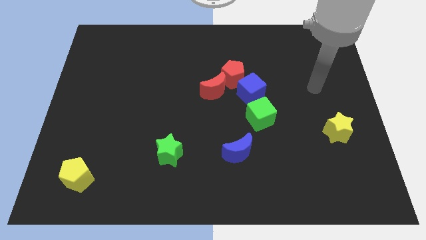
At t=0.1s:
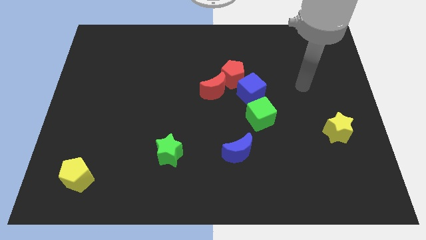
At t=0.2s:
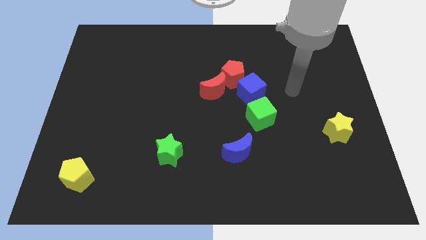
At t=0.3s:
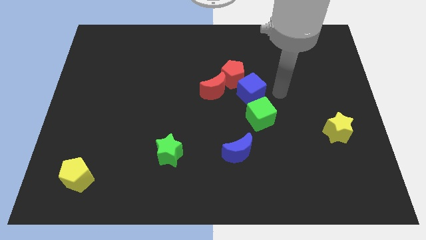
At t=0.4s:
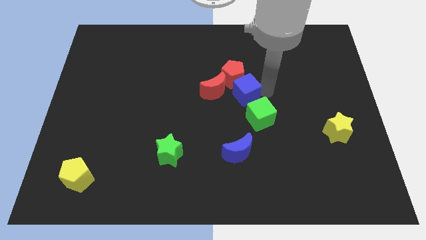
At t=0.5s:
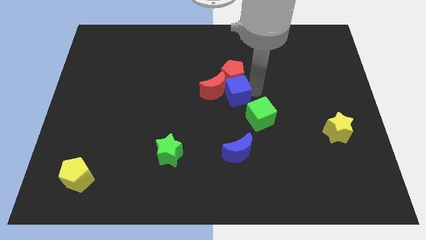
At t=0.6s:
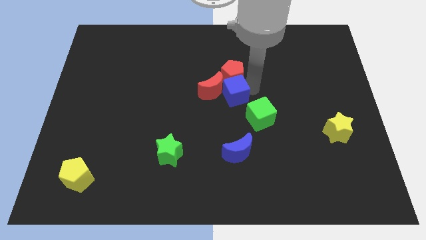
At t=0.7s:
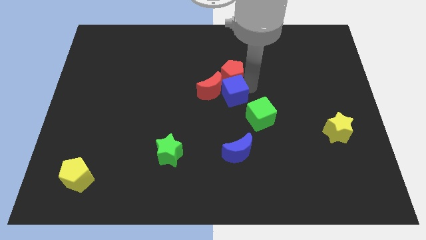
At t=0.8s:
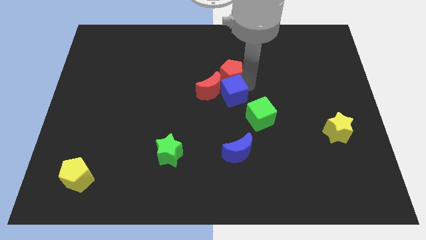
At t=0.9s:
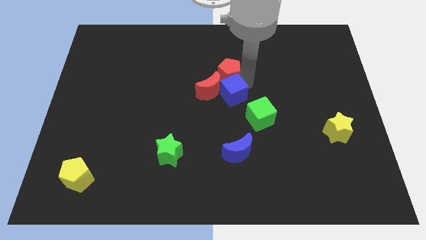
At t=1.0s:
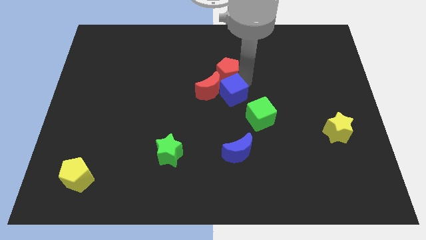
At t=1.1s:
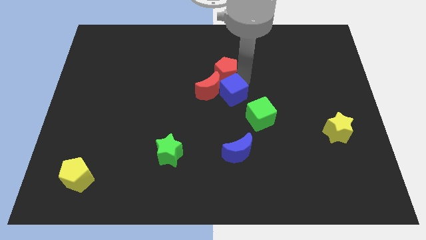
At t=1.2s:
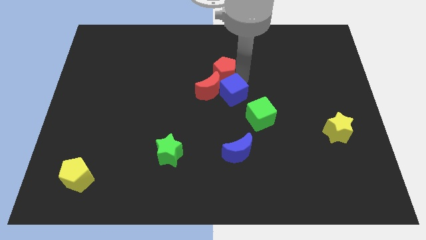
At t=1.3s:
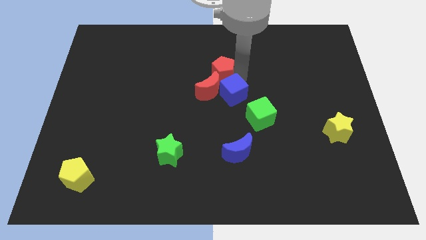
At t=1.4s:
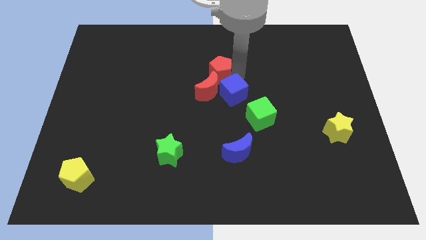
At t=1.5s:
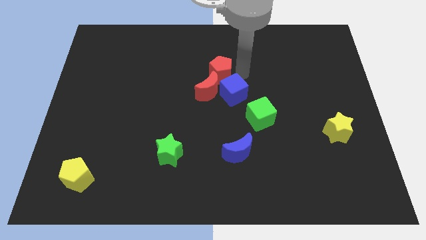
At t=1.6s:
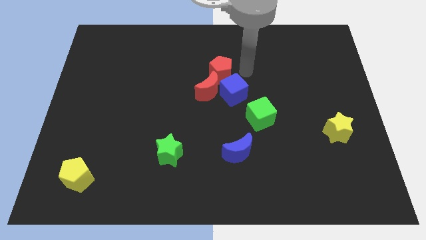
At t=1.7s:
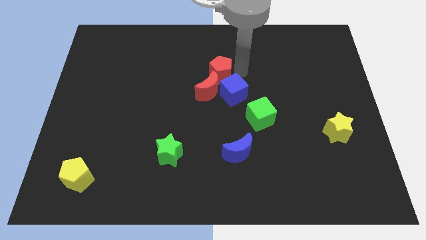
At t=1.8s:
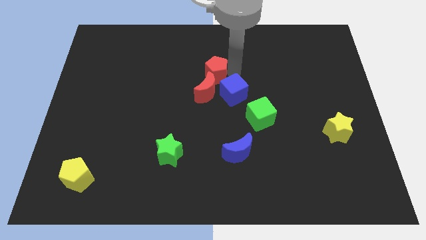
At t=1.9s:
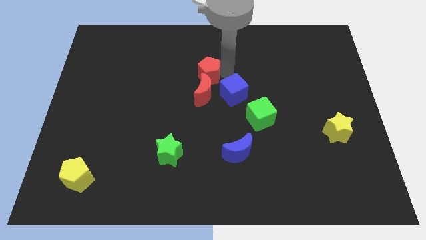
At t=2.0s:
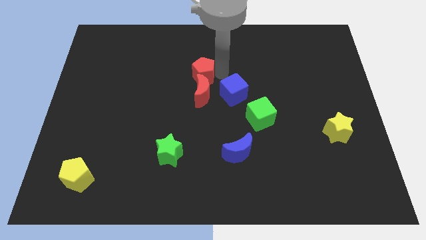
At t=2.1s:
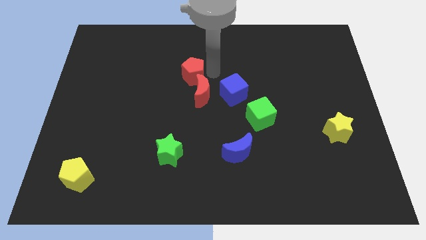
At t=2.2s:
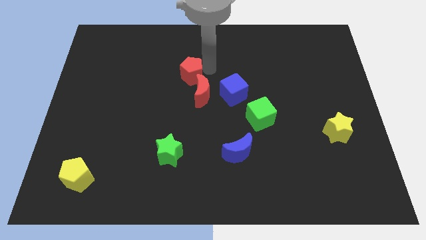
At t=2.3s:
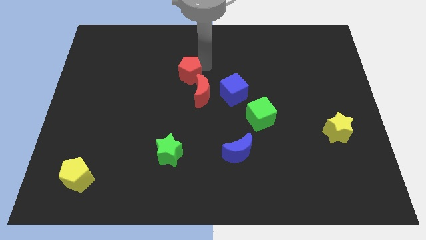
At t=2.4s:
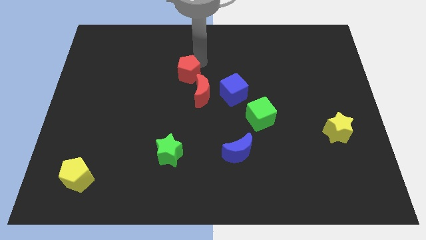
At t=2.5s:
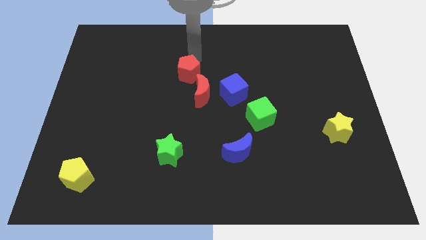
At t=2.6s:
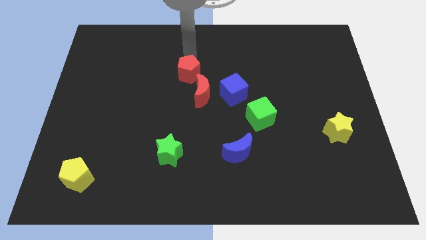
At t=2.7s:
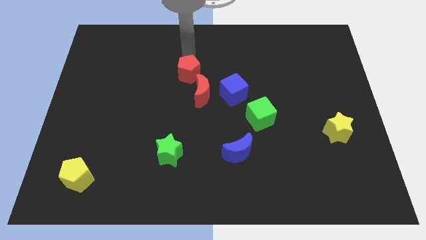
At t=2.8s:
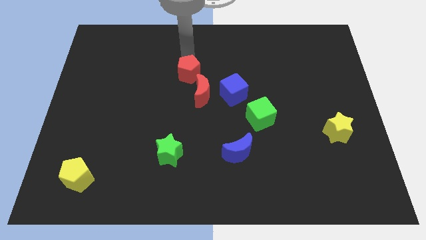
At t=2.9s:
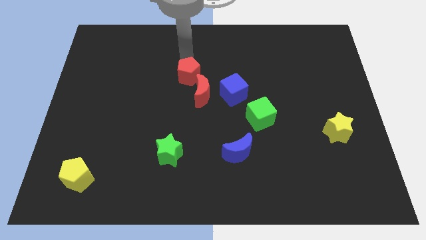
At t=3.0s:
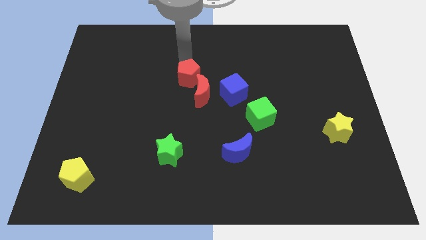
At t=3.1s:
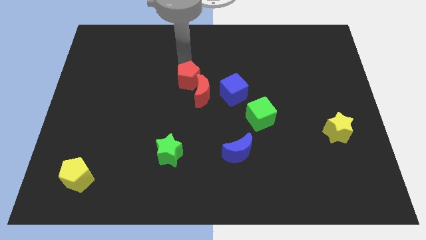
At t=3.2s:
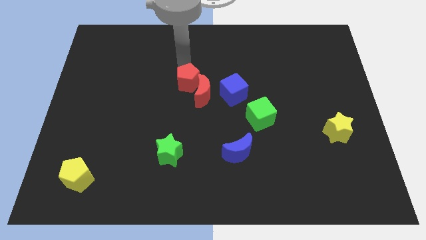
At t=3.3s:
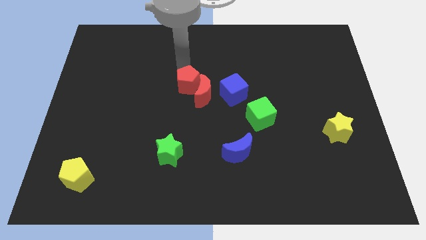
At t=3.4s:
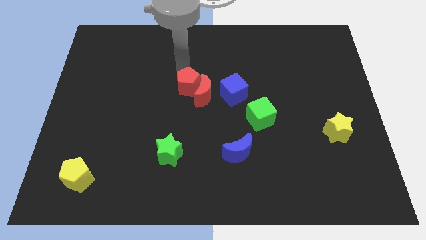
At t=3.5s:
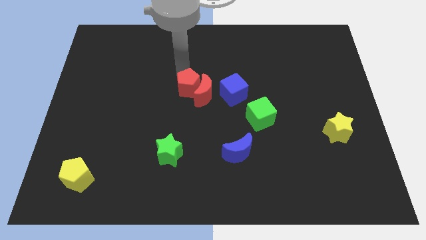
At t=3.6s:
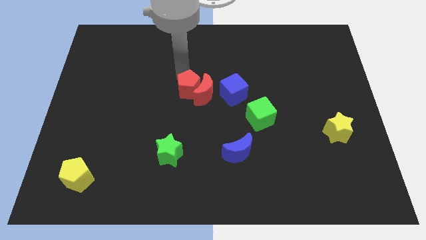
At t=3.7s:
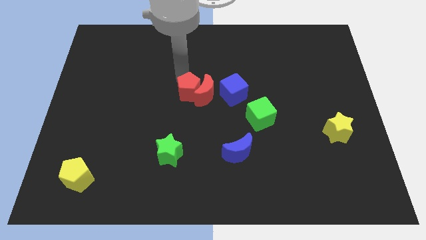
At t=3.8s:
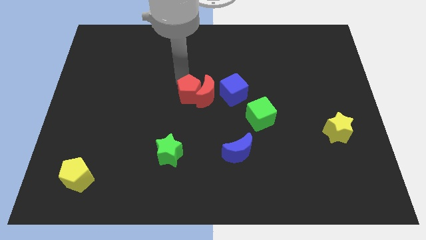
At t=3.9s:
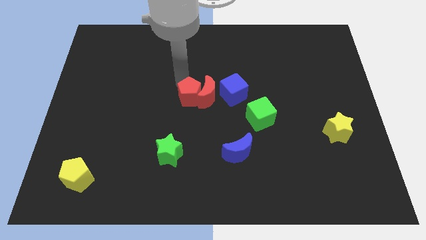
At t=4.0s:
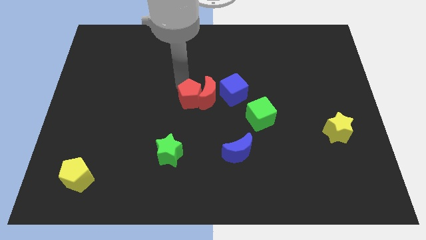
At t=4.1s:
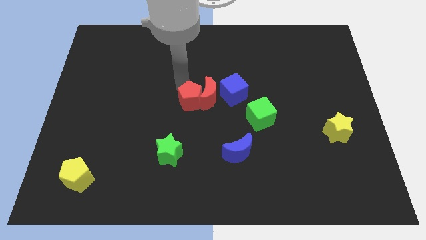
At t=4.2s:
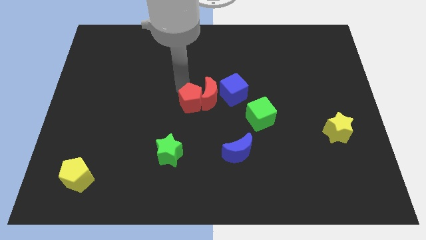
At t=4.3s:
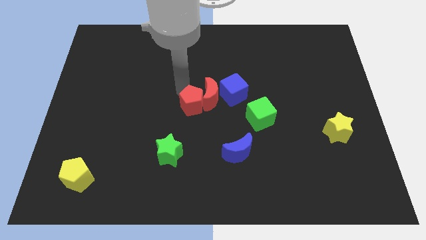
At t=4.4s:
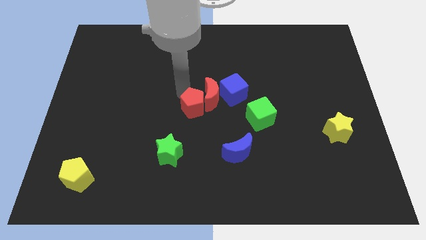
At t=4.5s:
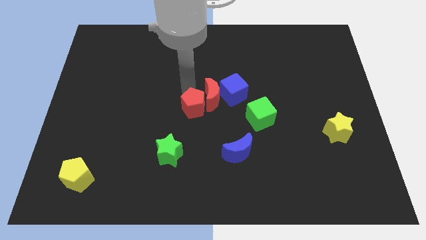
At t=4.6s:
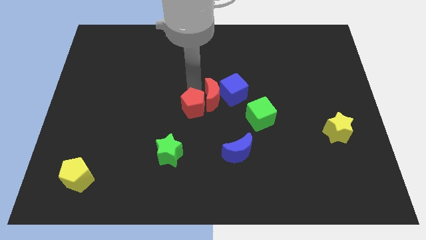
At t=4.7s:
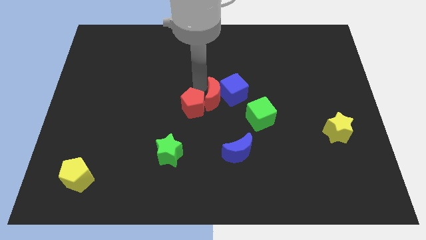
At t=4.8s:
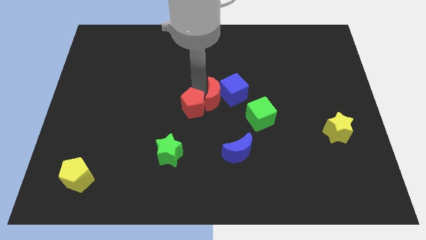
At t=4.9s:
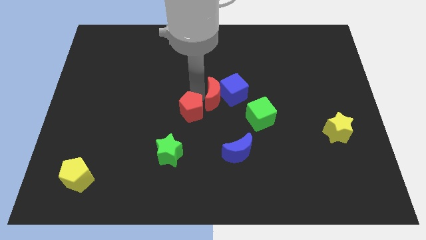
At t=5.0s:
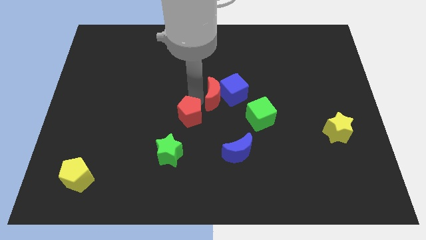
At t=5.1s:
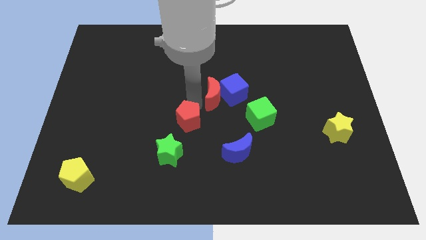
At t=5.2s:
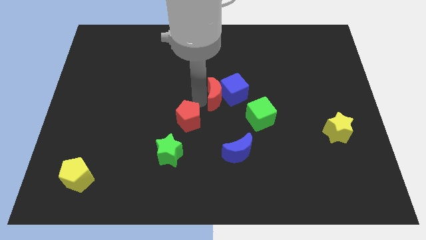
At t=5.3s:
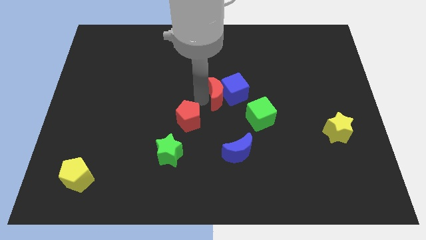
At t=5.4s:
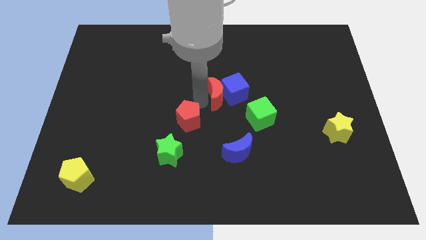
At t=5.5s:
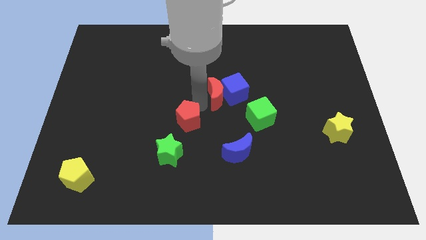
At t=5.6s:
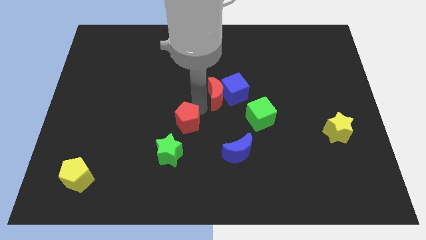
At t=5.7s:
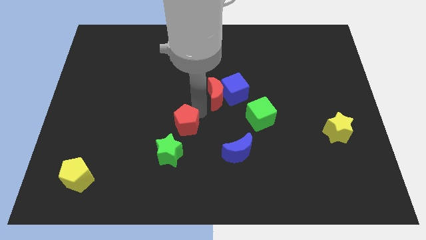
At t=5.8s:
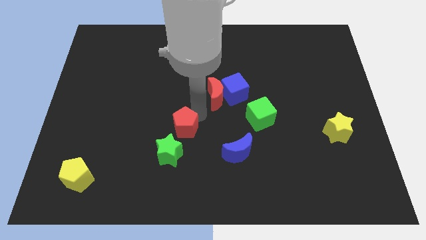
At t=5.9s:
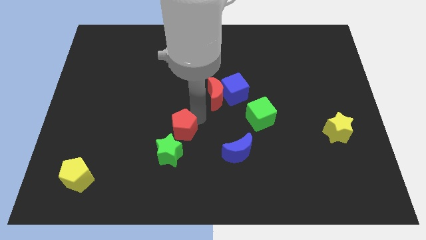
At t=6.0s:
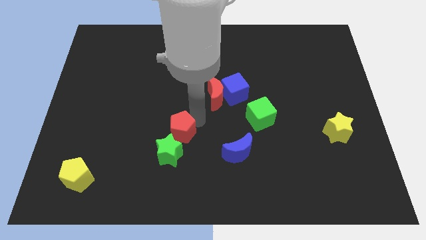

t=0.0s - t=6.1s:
slide the red pentagon to the green star
